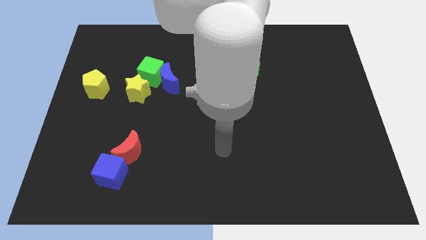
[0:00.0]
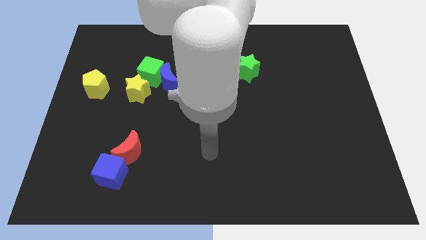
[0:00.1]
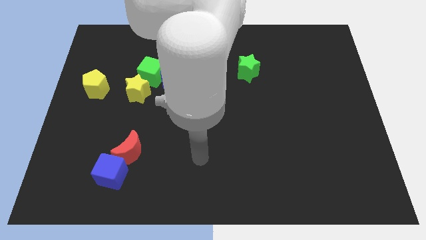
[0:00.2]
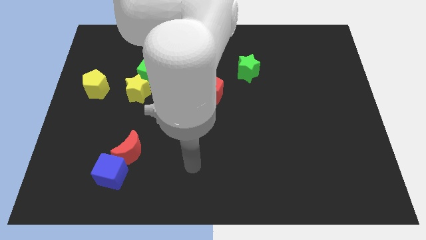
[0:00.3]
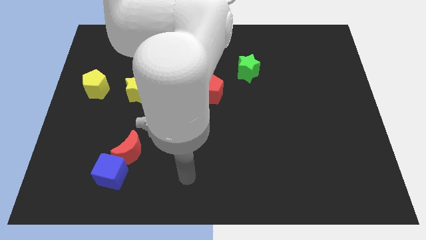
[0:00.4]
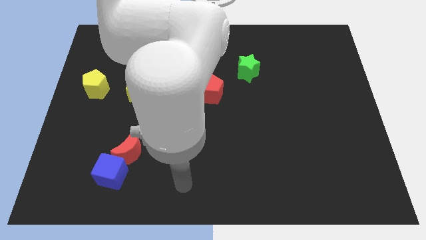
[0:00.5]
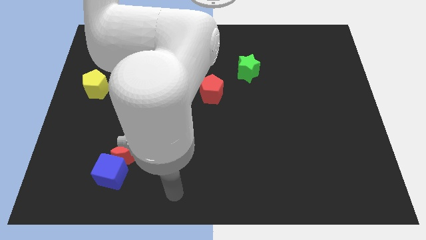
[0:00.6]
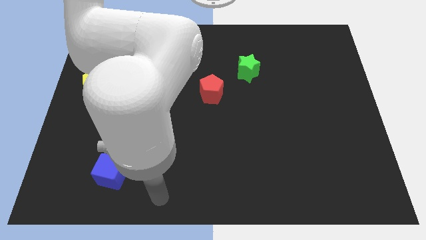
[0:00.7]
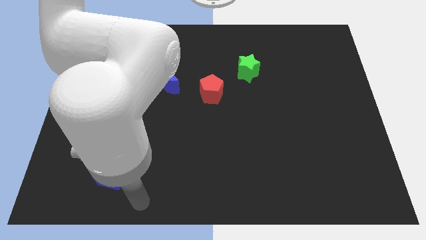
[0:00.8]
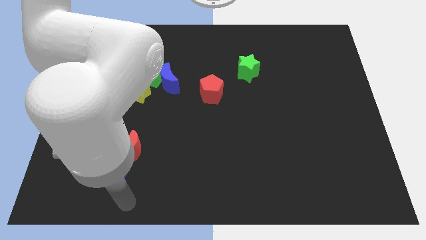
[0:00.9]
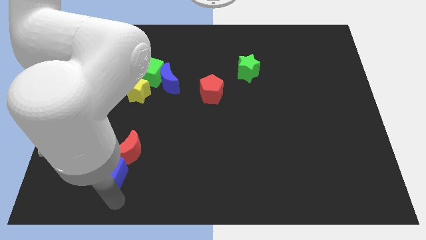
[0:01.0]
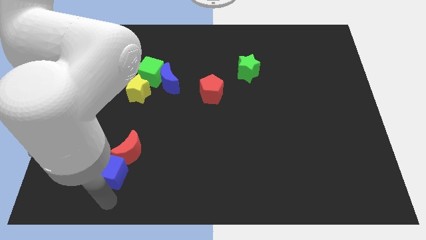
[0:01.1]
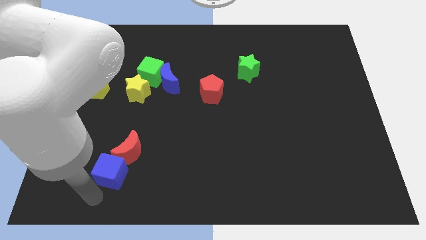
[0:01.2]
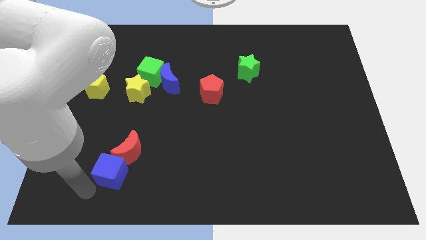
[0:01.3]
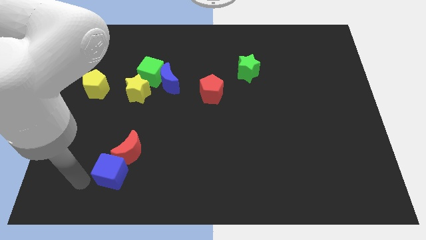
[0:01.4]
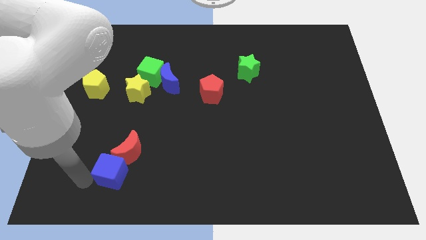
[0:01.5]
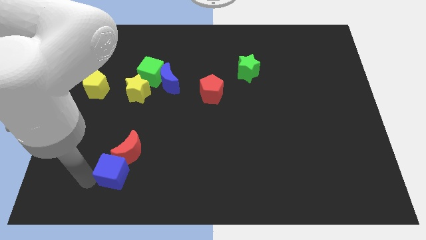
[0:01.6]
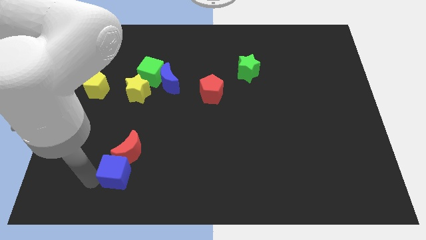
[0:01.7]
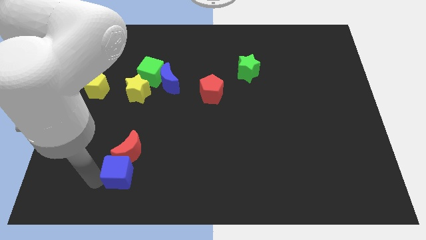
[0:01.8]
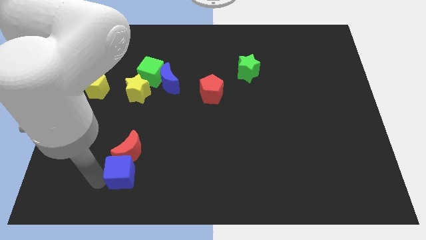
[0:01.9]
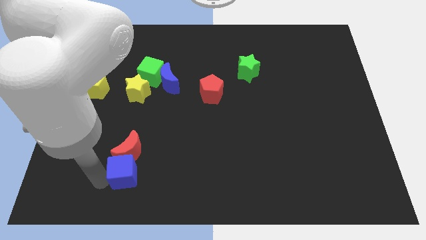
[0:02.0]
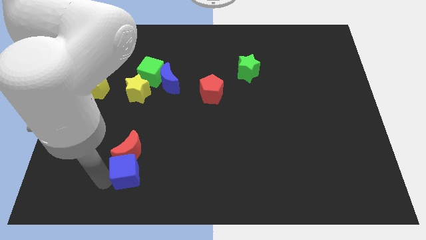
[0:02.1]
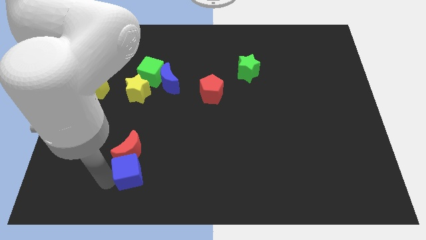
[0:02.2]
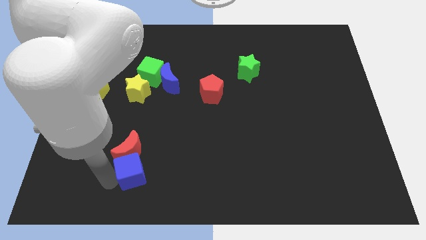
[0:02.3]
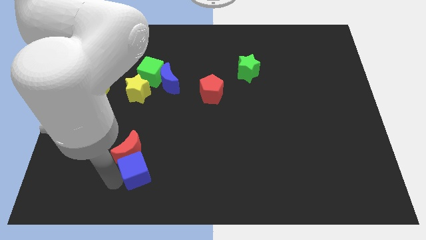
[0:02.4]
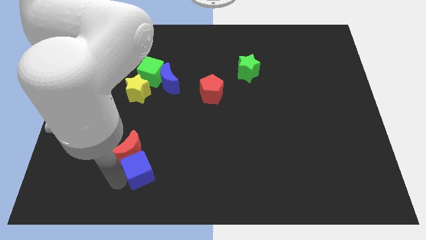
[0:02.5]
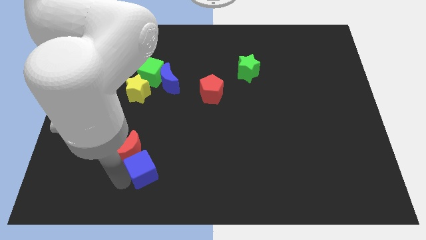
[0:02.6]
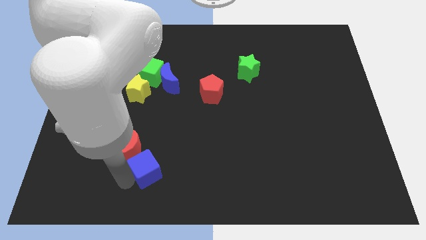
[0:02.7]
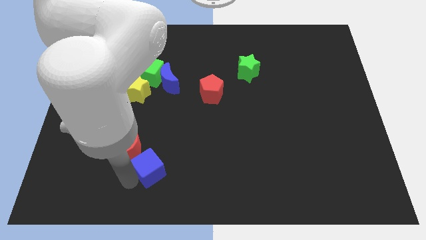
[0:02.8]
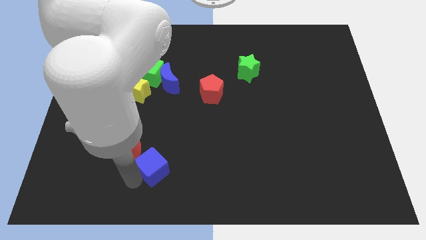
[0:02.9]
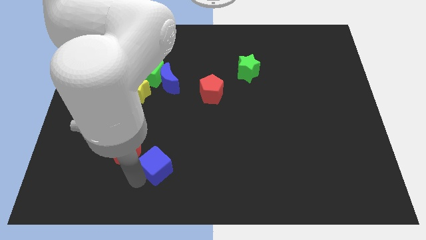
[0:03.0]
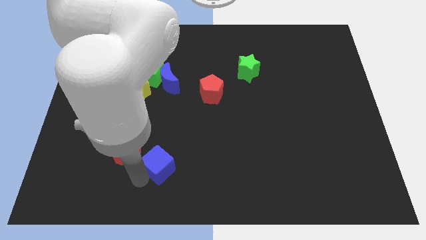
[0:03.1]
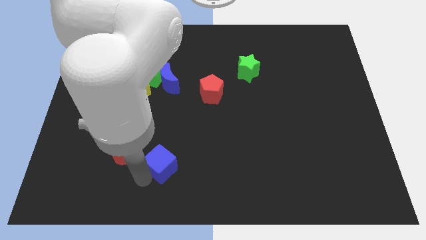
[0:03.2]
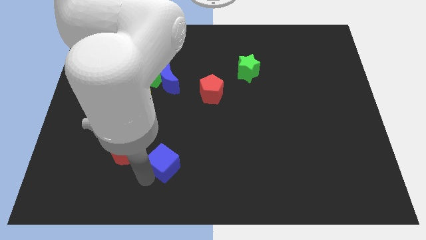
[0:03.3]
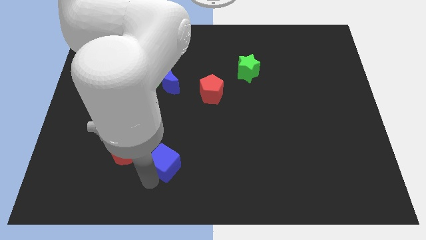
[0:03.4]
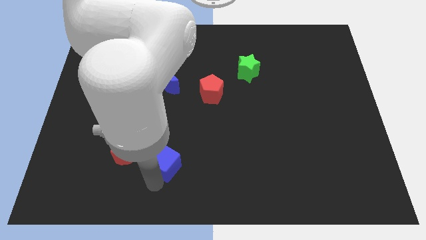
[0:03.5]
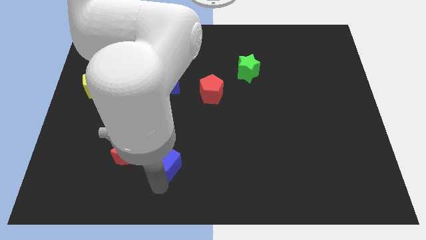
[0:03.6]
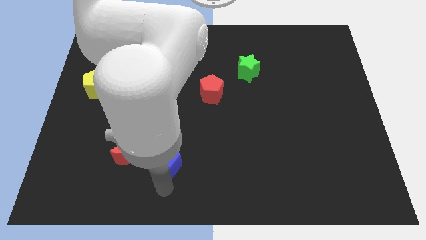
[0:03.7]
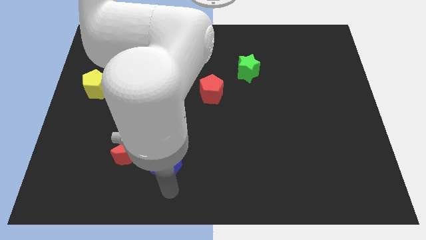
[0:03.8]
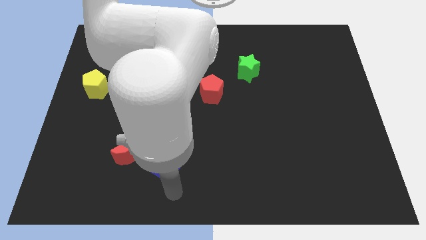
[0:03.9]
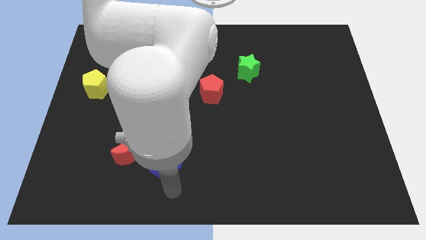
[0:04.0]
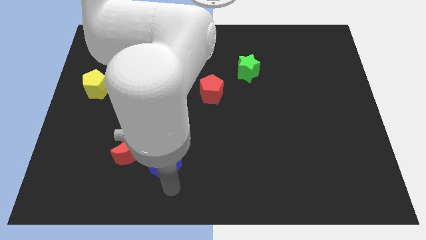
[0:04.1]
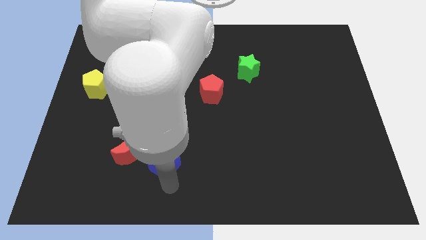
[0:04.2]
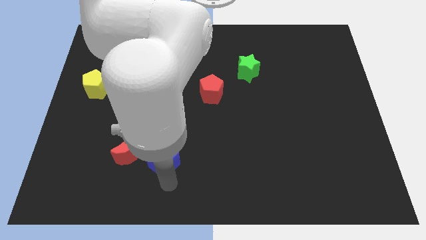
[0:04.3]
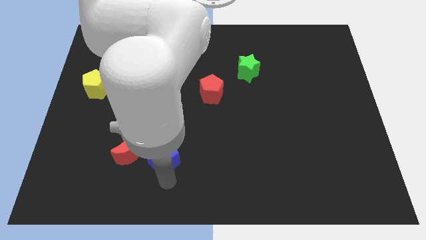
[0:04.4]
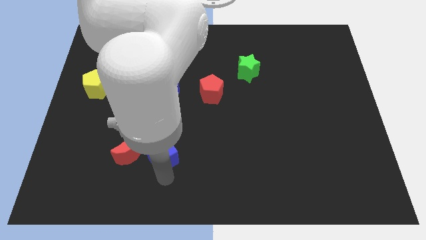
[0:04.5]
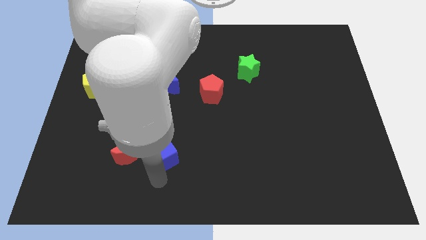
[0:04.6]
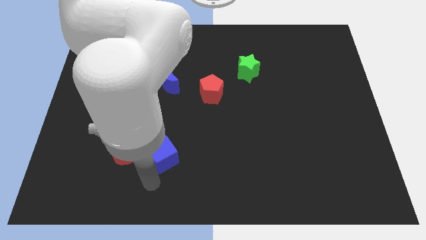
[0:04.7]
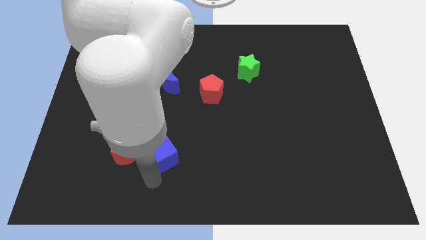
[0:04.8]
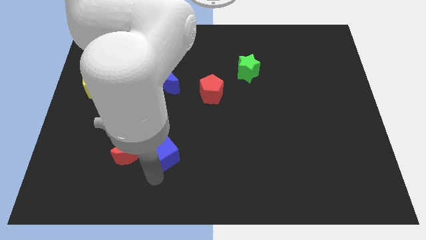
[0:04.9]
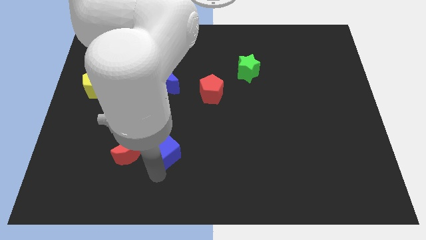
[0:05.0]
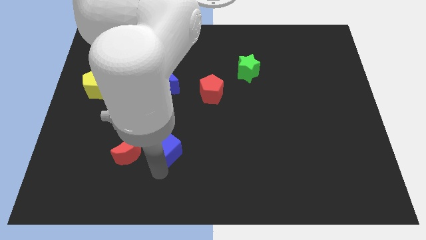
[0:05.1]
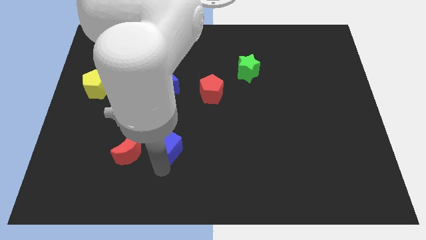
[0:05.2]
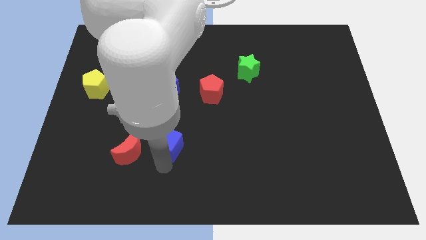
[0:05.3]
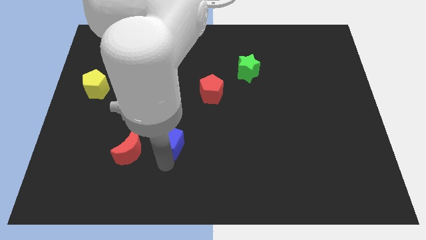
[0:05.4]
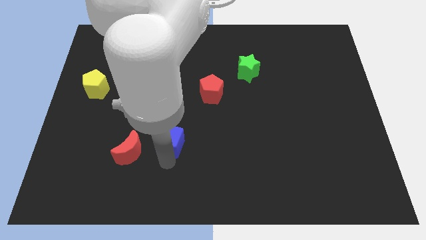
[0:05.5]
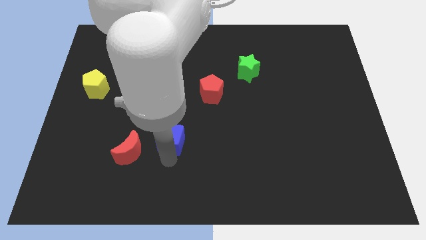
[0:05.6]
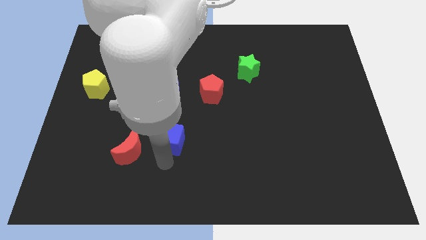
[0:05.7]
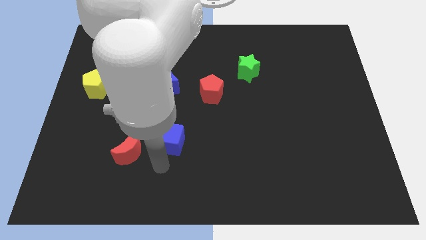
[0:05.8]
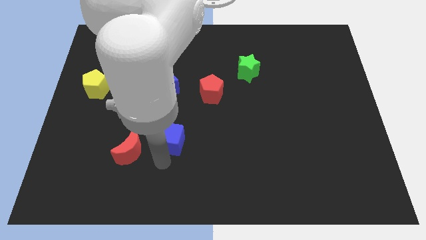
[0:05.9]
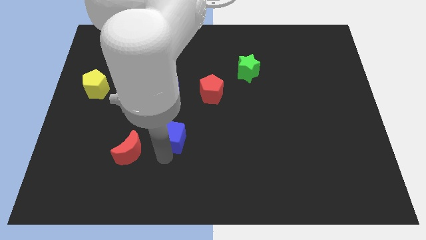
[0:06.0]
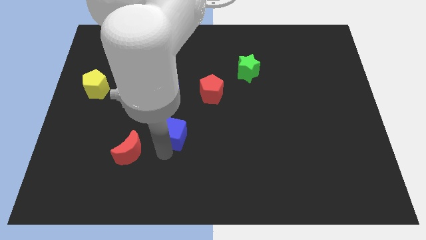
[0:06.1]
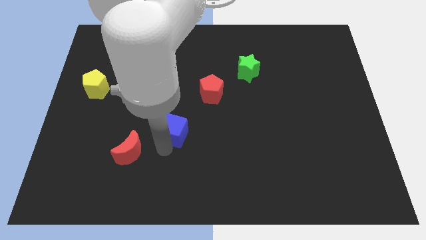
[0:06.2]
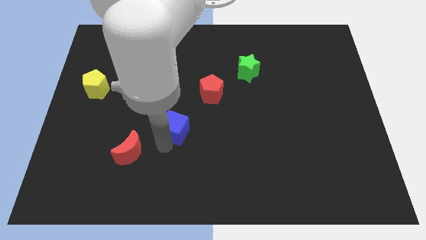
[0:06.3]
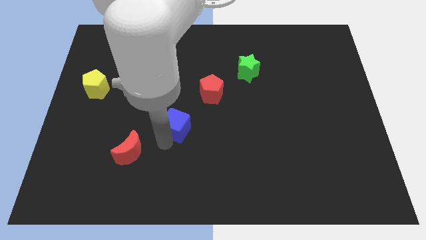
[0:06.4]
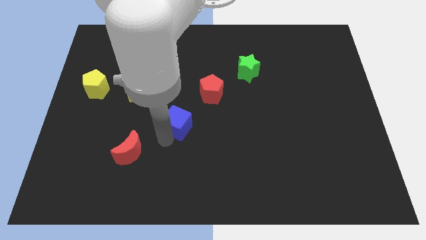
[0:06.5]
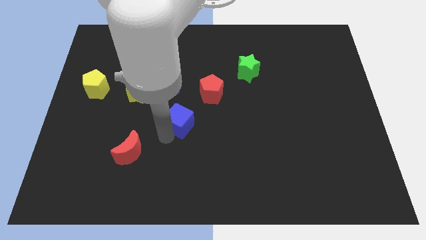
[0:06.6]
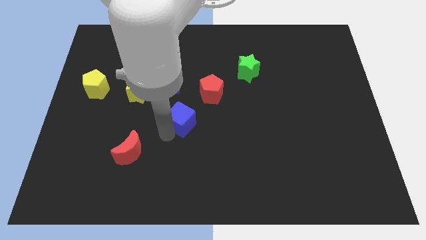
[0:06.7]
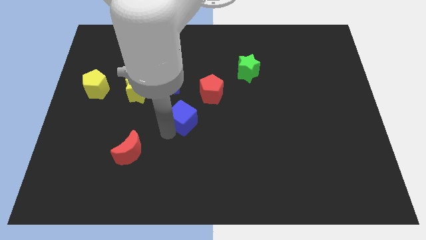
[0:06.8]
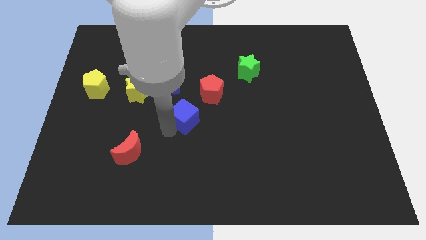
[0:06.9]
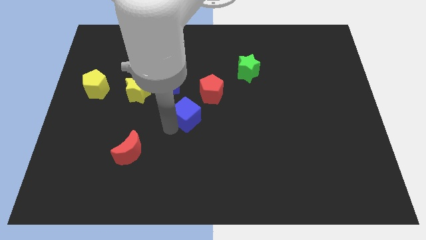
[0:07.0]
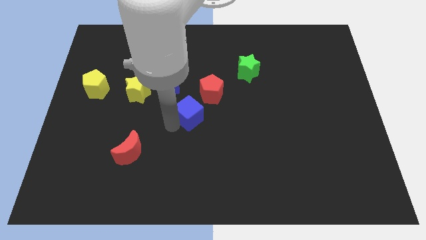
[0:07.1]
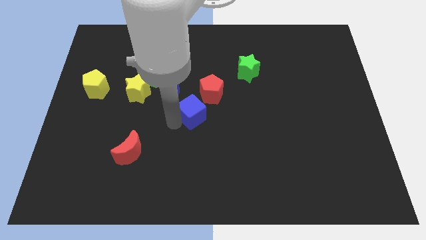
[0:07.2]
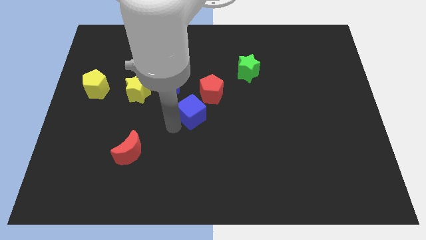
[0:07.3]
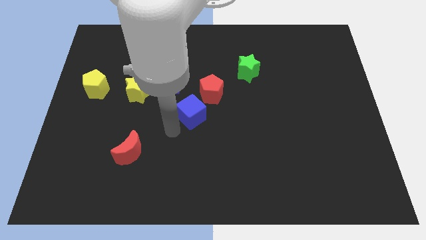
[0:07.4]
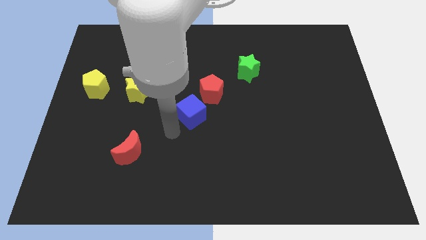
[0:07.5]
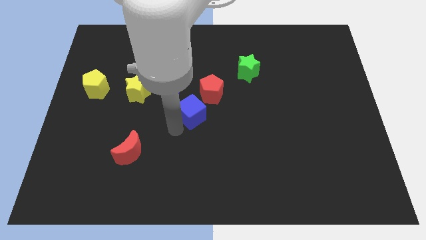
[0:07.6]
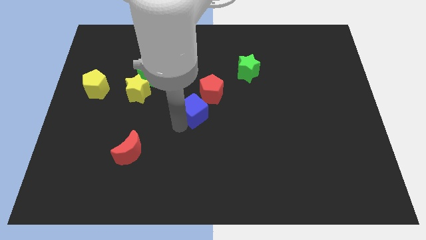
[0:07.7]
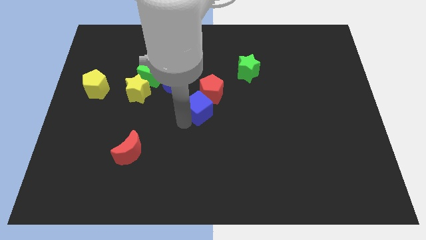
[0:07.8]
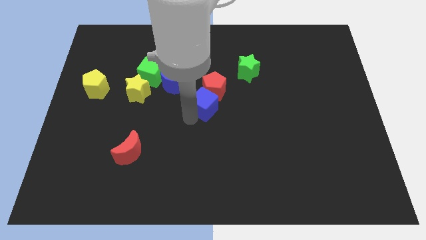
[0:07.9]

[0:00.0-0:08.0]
put the blue cube to the red pentagon
